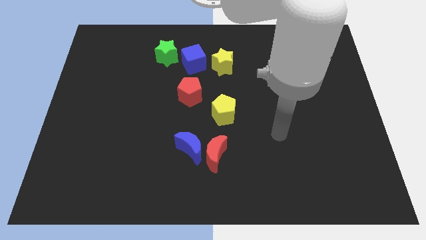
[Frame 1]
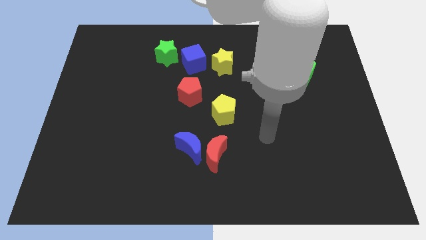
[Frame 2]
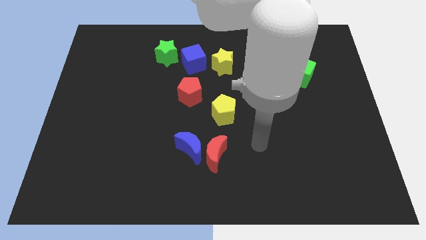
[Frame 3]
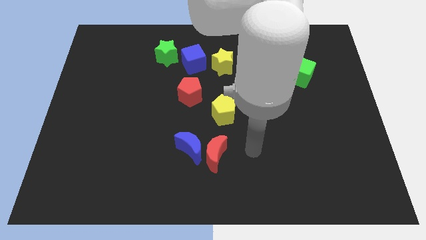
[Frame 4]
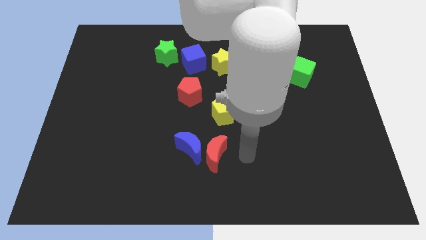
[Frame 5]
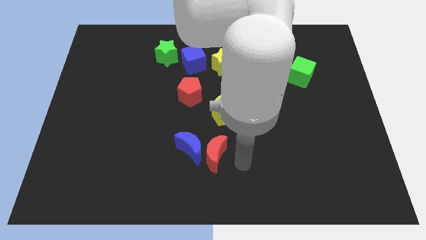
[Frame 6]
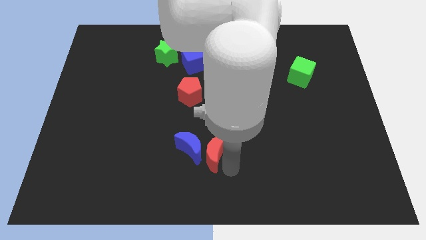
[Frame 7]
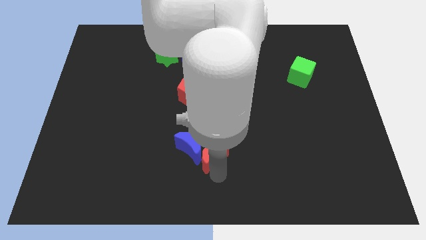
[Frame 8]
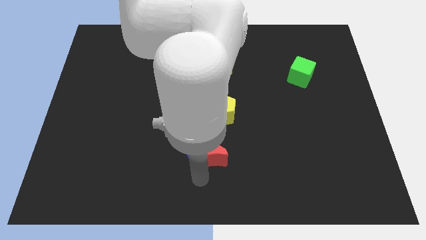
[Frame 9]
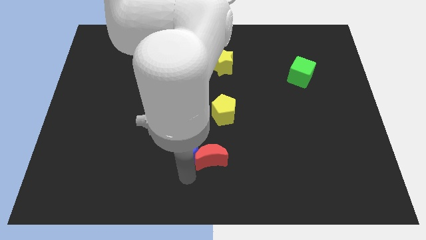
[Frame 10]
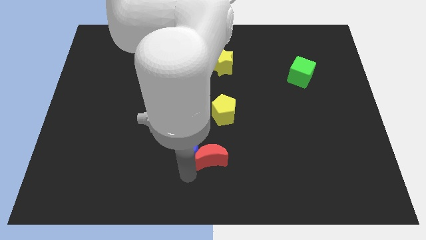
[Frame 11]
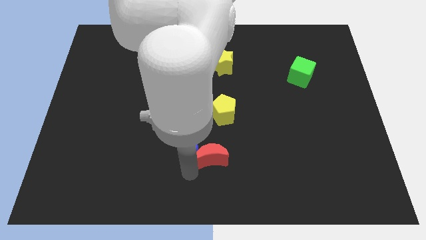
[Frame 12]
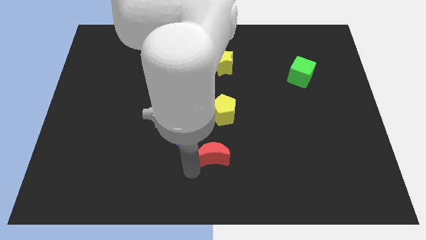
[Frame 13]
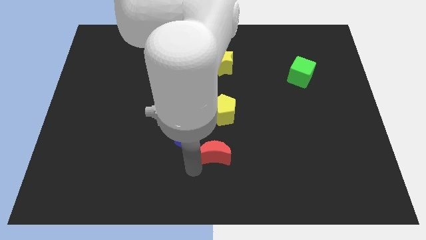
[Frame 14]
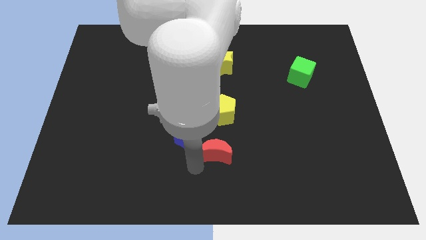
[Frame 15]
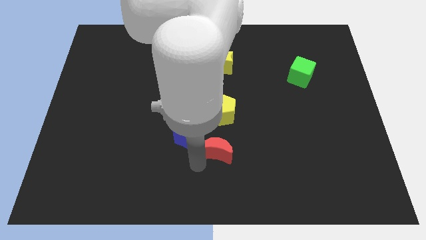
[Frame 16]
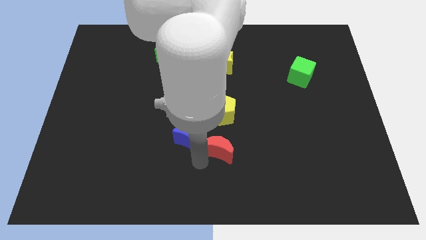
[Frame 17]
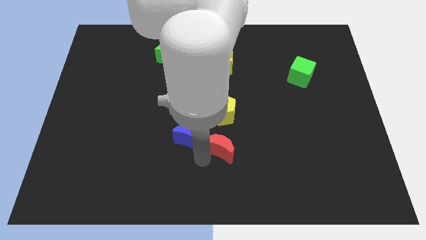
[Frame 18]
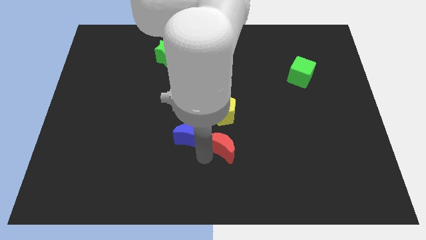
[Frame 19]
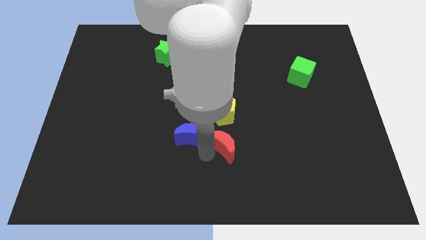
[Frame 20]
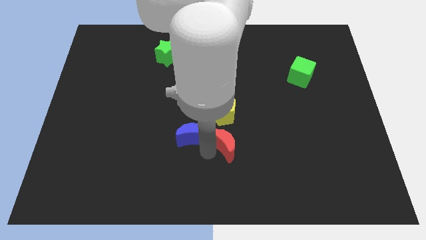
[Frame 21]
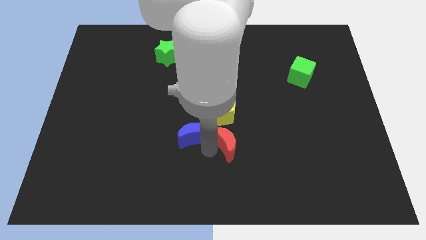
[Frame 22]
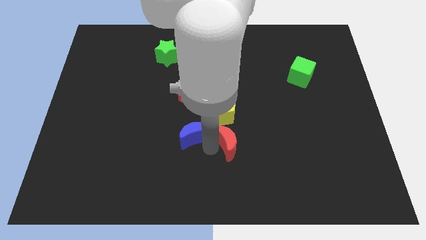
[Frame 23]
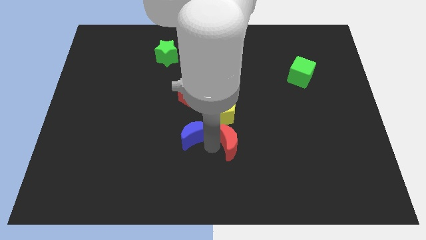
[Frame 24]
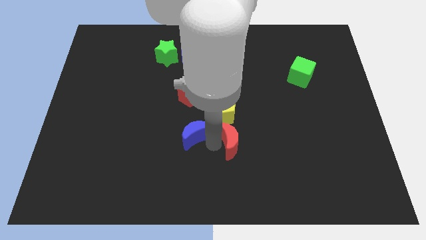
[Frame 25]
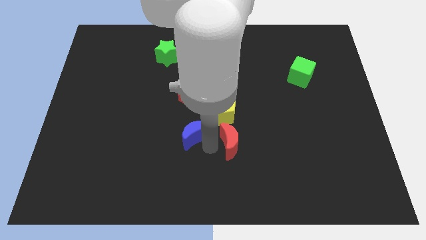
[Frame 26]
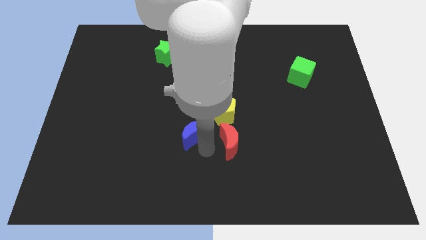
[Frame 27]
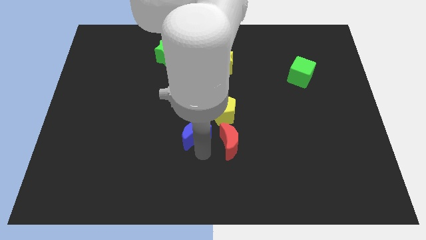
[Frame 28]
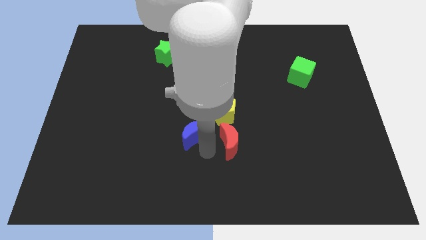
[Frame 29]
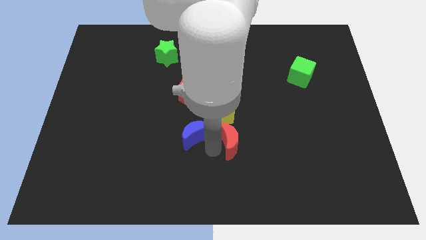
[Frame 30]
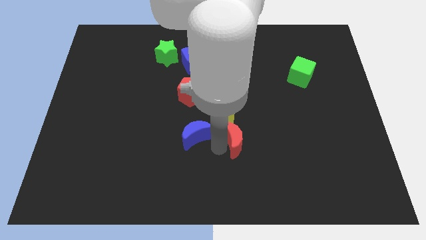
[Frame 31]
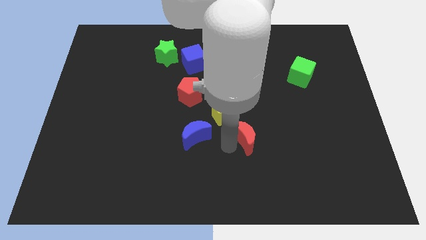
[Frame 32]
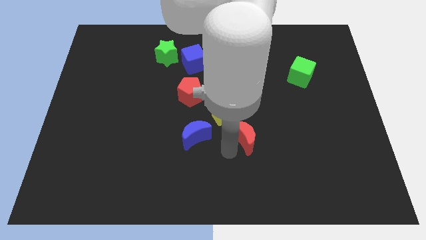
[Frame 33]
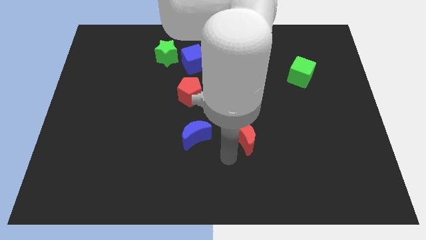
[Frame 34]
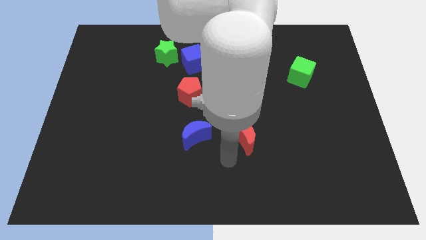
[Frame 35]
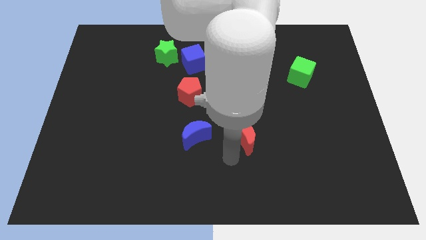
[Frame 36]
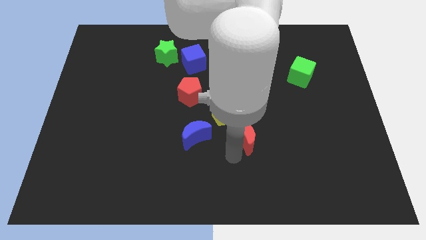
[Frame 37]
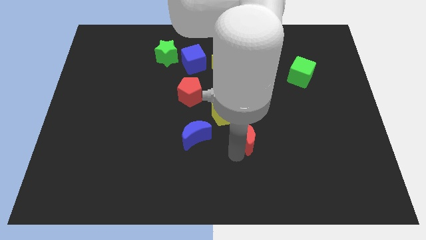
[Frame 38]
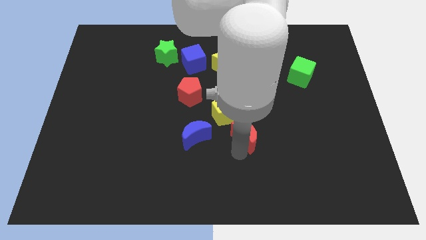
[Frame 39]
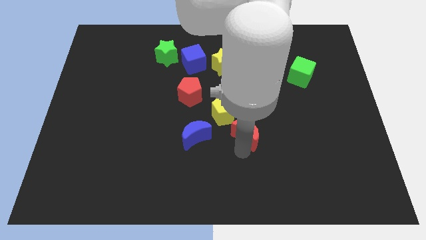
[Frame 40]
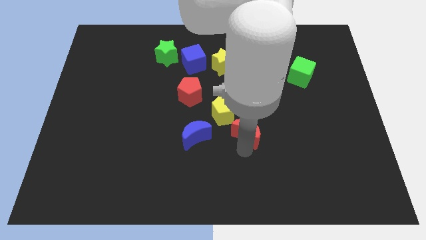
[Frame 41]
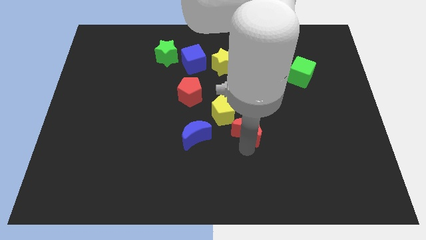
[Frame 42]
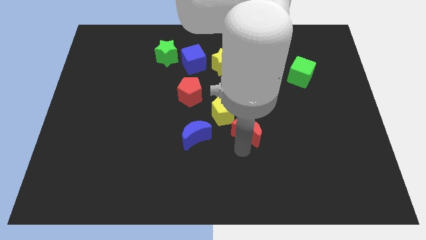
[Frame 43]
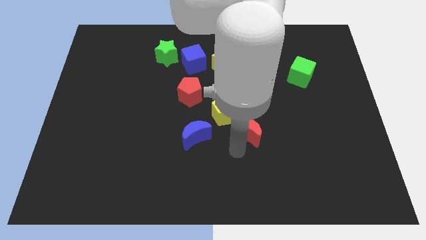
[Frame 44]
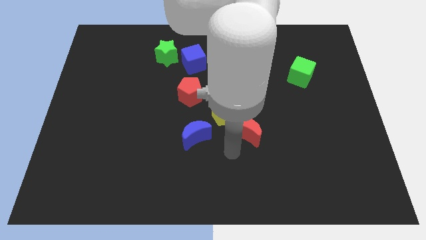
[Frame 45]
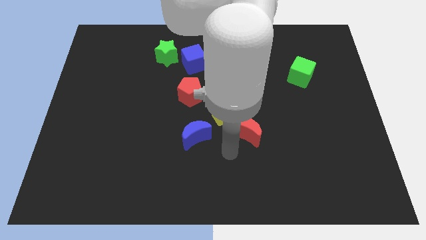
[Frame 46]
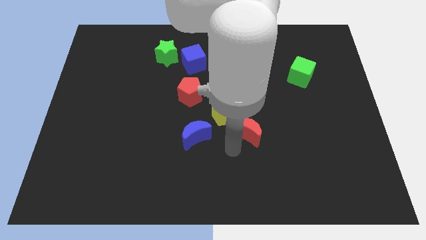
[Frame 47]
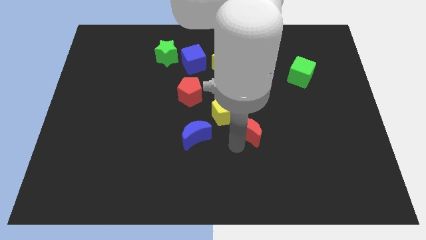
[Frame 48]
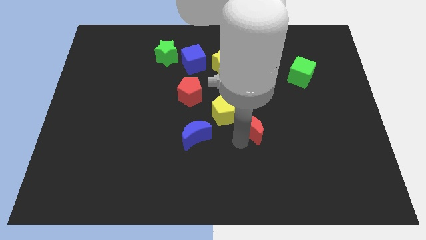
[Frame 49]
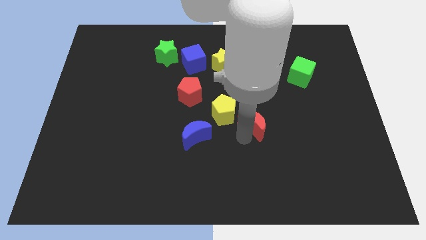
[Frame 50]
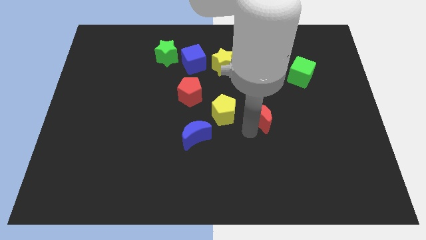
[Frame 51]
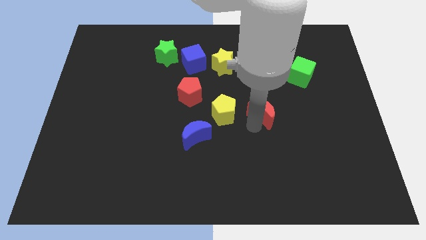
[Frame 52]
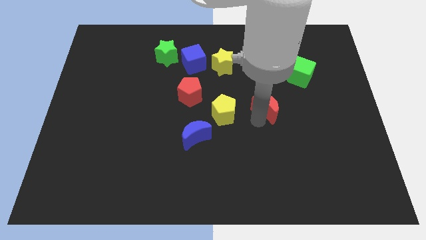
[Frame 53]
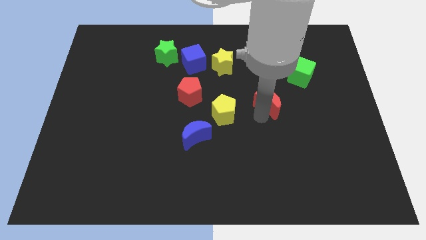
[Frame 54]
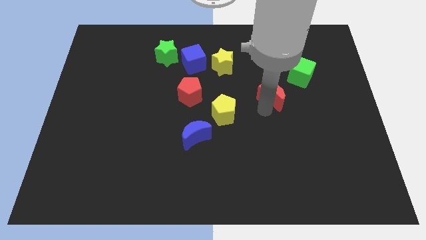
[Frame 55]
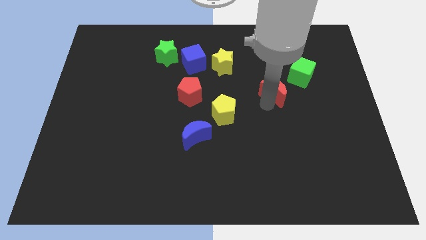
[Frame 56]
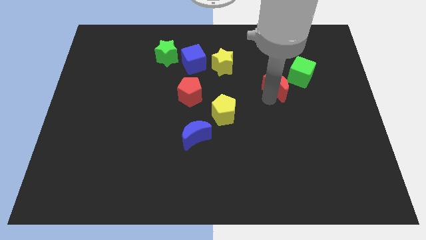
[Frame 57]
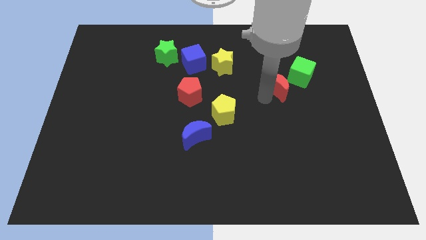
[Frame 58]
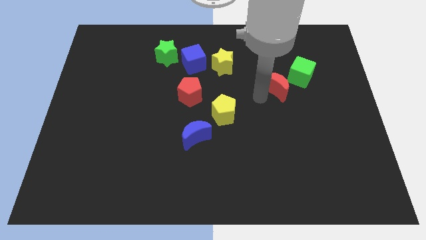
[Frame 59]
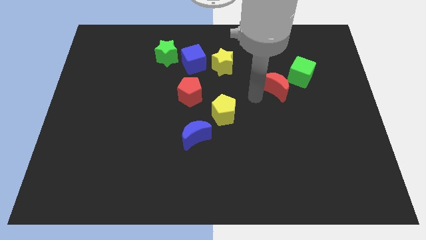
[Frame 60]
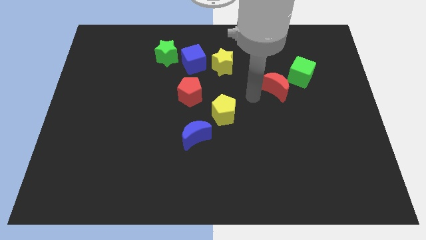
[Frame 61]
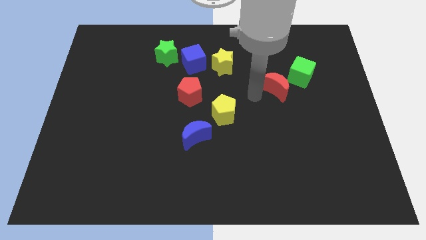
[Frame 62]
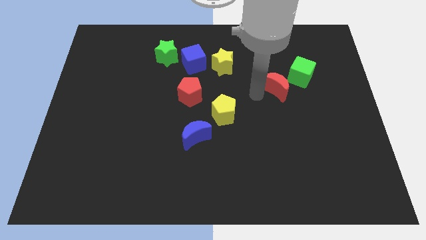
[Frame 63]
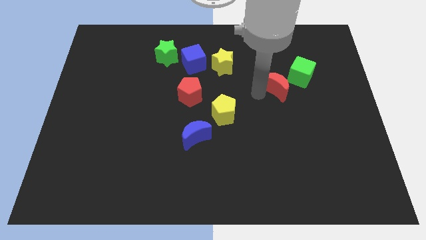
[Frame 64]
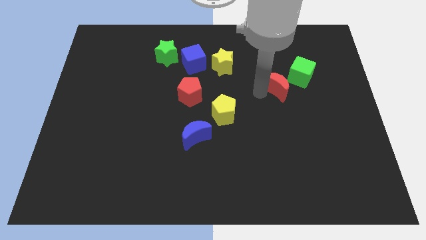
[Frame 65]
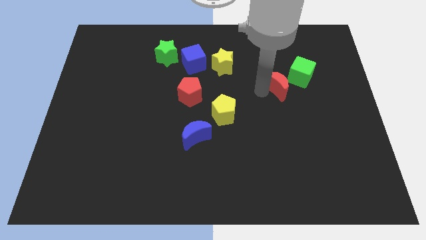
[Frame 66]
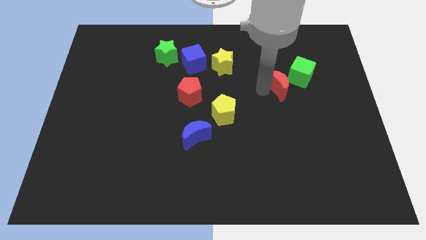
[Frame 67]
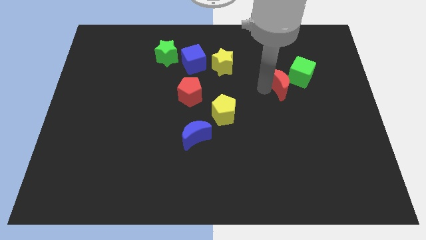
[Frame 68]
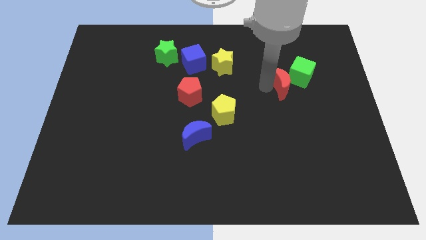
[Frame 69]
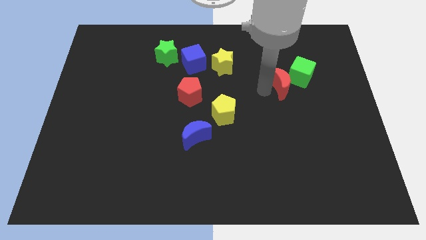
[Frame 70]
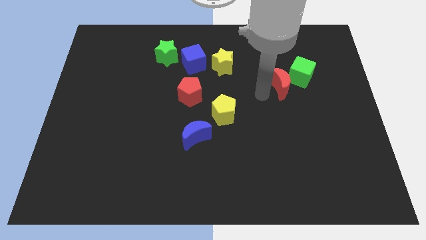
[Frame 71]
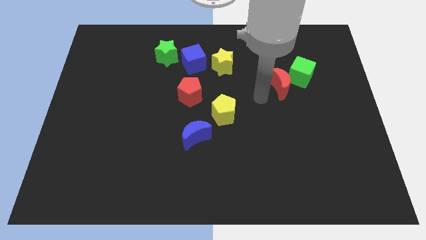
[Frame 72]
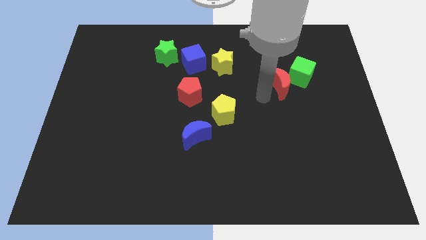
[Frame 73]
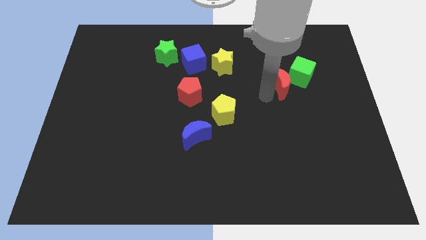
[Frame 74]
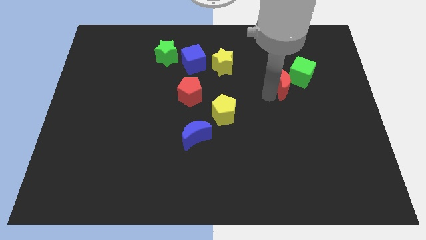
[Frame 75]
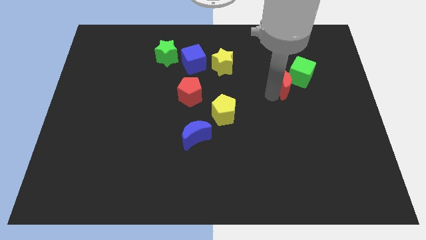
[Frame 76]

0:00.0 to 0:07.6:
put the red moon next to the green cube

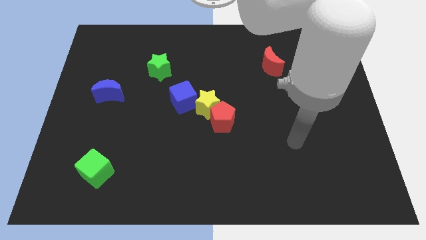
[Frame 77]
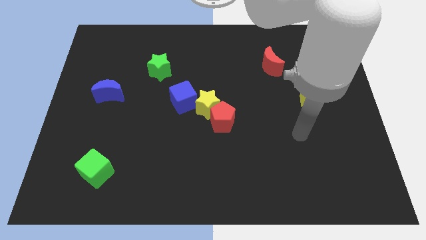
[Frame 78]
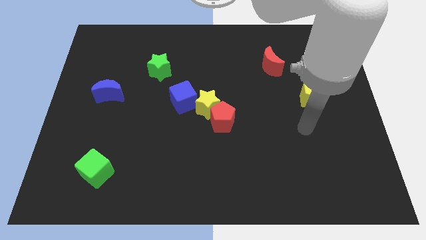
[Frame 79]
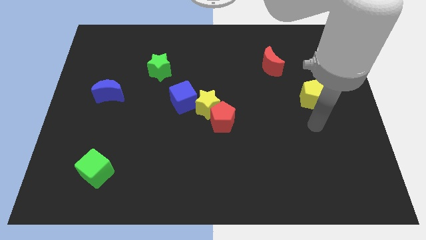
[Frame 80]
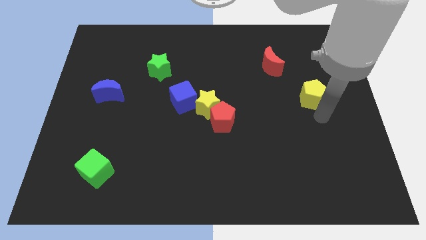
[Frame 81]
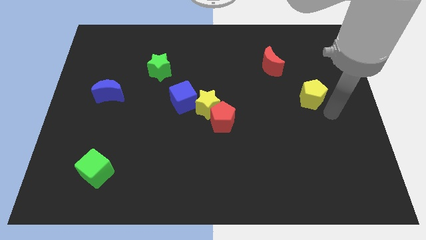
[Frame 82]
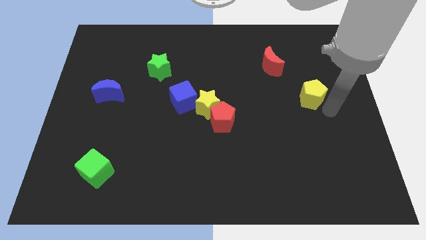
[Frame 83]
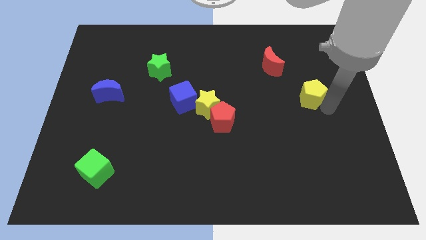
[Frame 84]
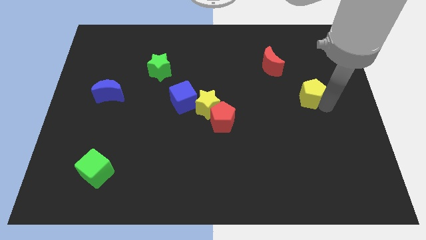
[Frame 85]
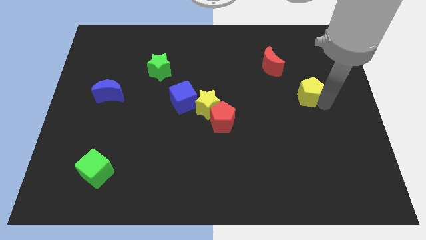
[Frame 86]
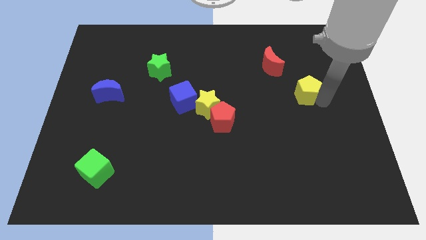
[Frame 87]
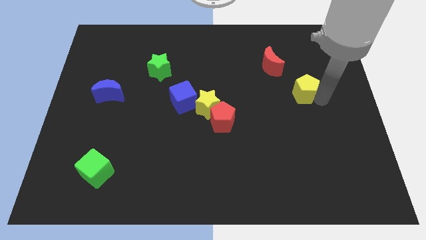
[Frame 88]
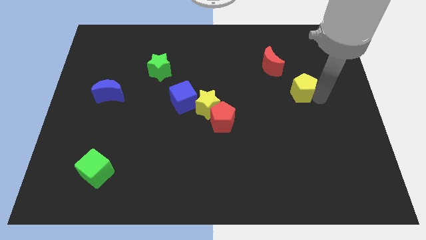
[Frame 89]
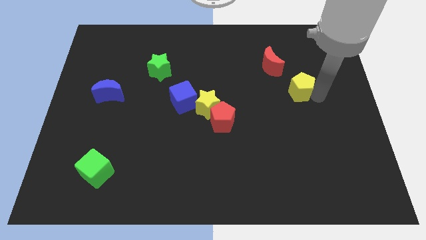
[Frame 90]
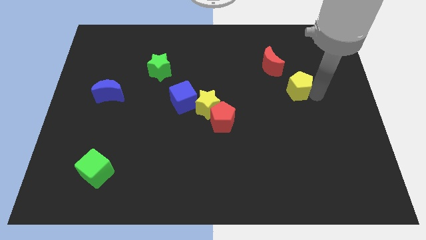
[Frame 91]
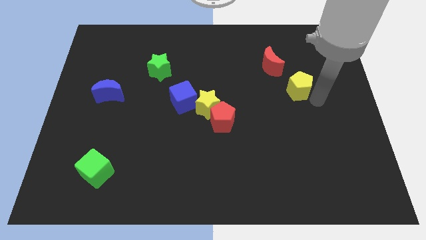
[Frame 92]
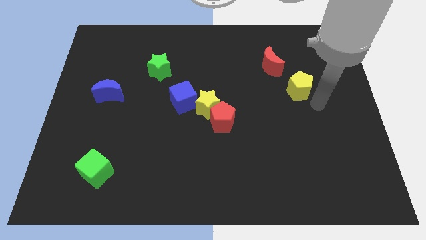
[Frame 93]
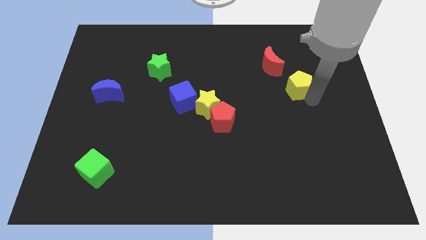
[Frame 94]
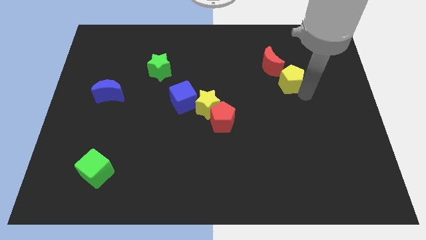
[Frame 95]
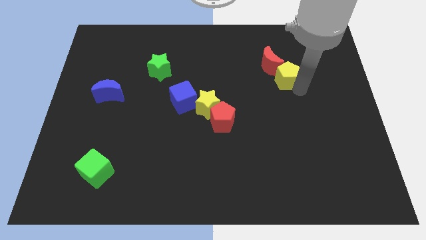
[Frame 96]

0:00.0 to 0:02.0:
move the yellow pentagon next to the red moon
